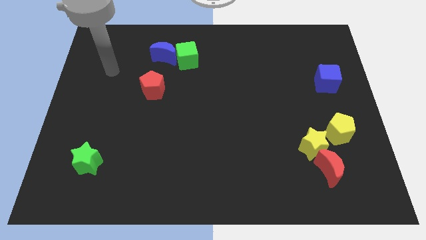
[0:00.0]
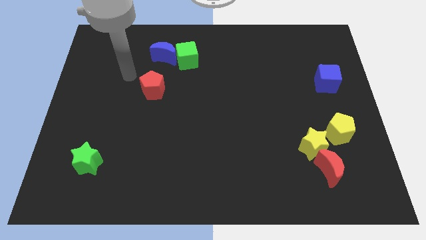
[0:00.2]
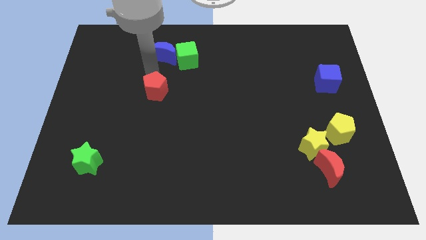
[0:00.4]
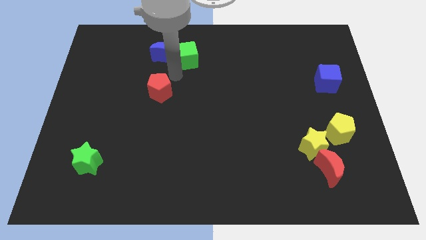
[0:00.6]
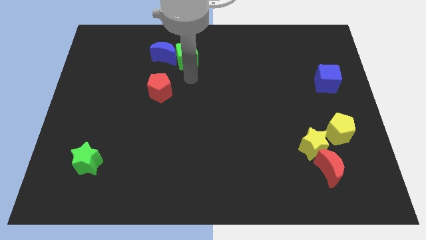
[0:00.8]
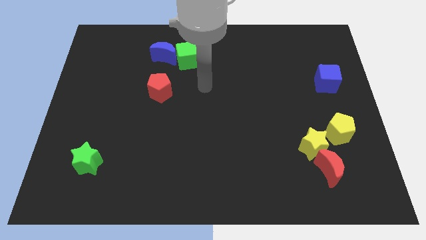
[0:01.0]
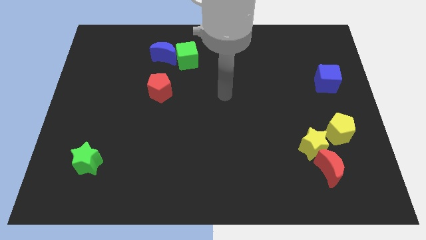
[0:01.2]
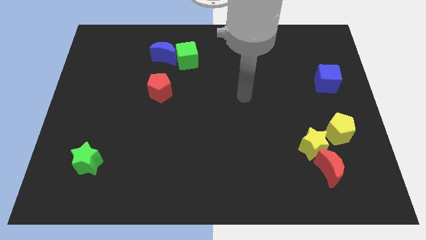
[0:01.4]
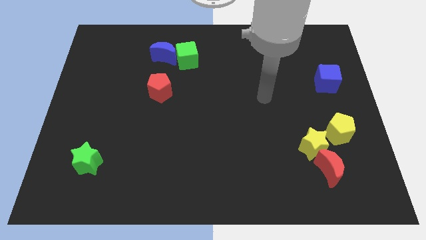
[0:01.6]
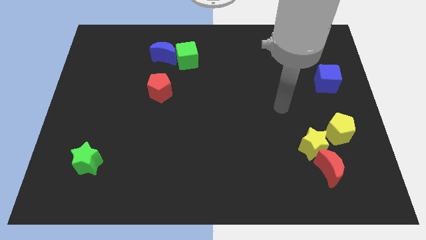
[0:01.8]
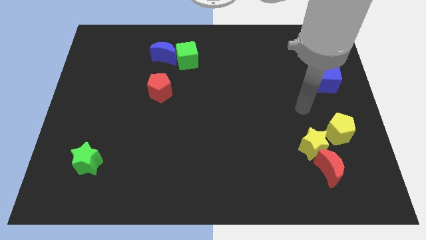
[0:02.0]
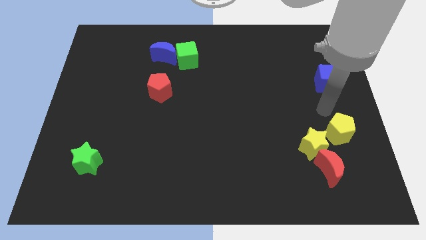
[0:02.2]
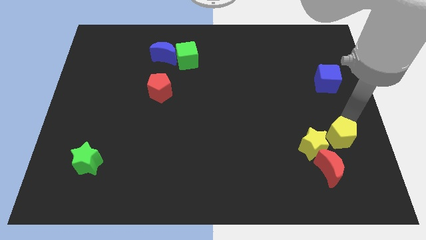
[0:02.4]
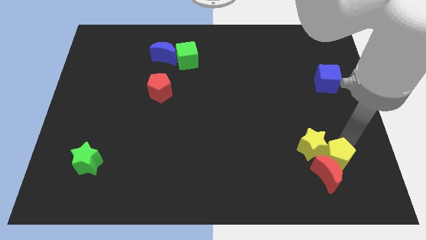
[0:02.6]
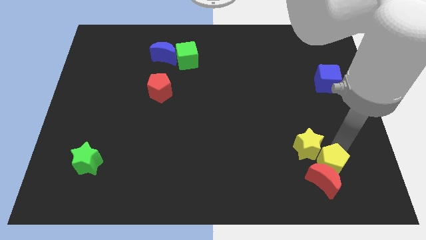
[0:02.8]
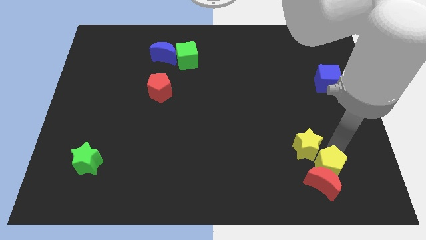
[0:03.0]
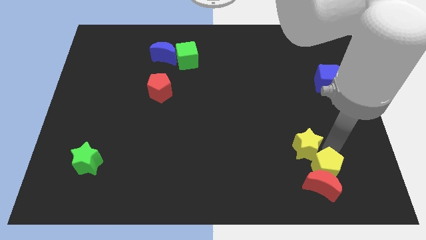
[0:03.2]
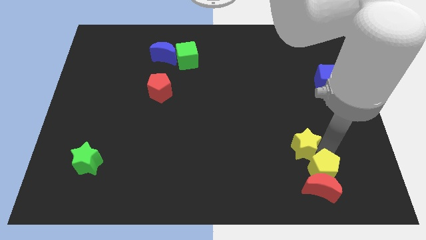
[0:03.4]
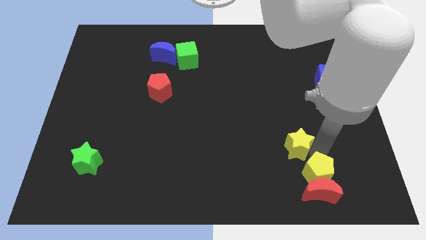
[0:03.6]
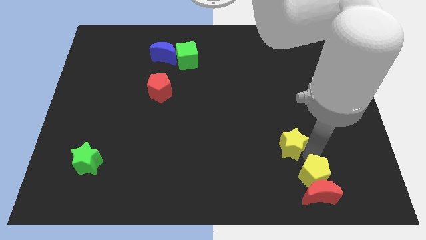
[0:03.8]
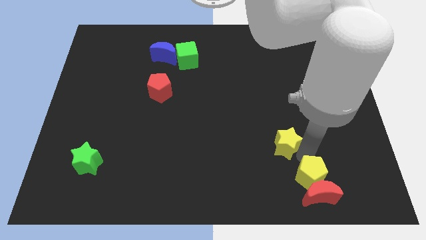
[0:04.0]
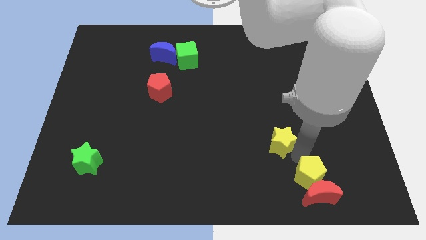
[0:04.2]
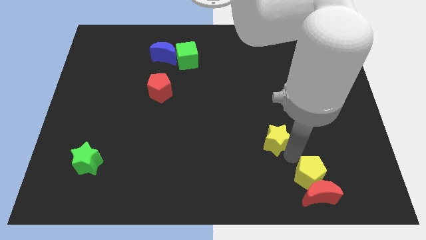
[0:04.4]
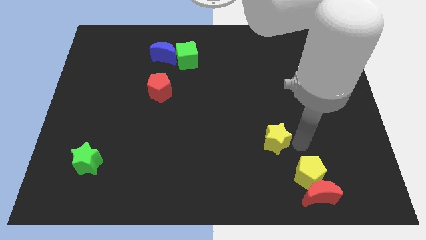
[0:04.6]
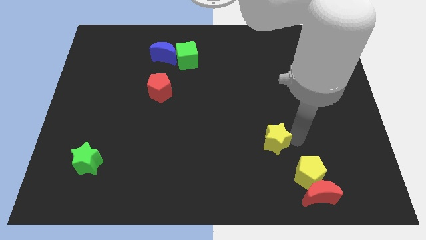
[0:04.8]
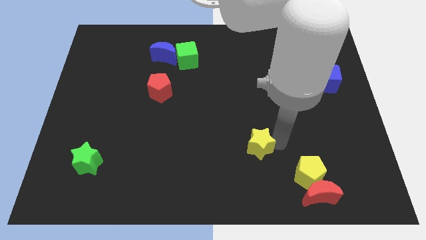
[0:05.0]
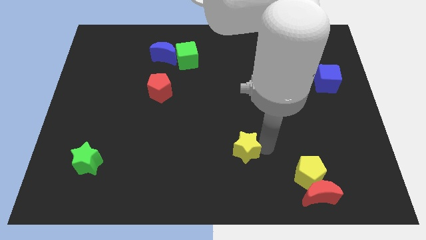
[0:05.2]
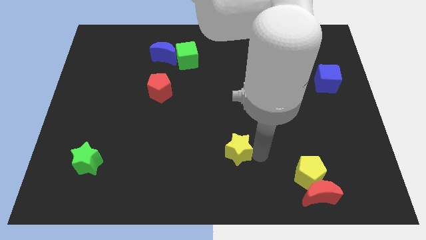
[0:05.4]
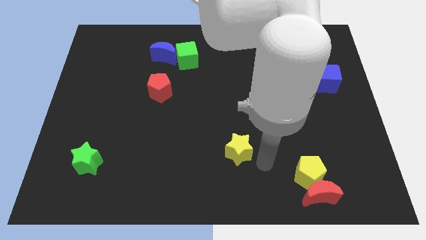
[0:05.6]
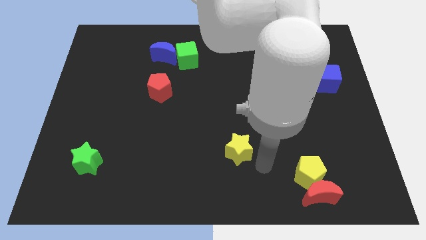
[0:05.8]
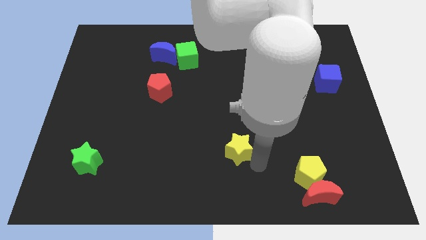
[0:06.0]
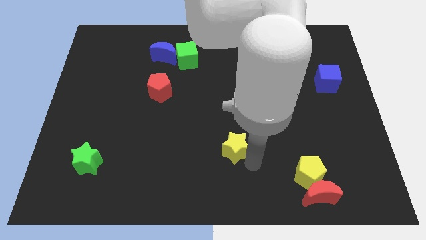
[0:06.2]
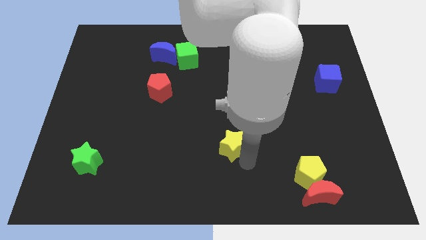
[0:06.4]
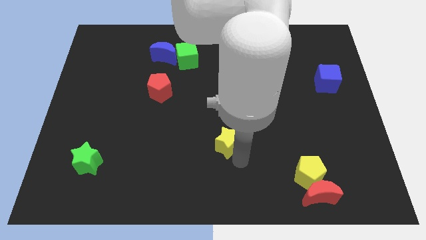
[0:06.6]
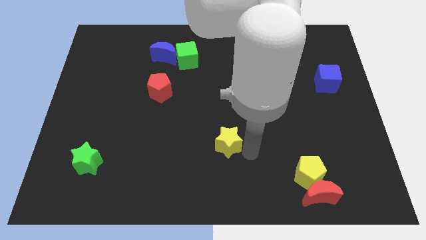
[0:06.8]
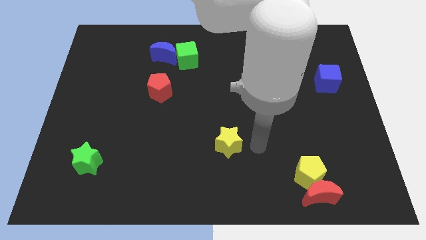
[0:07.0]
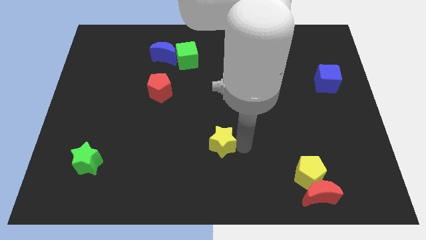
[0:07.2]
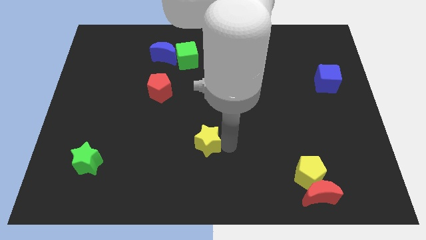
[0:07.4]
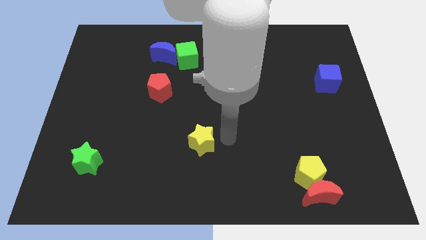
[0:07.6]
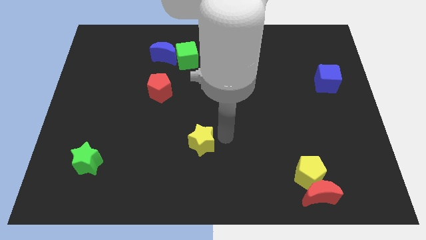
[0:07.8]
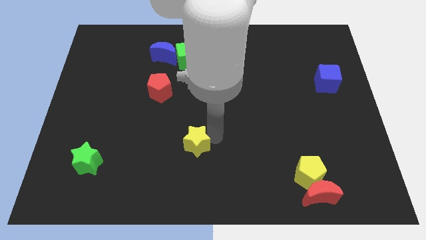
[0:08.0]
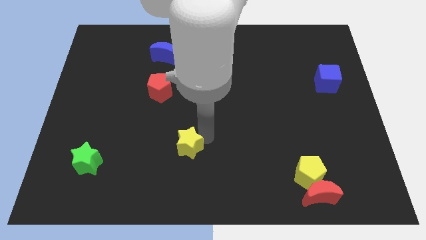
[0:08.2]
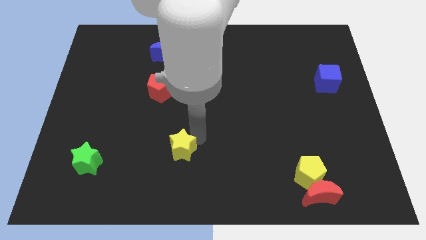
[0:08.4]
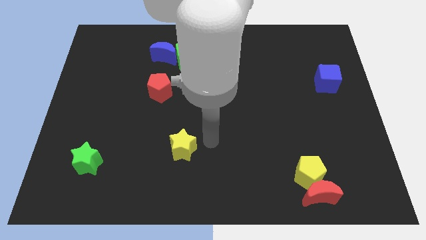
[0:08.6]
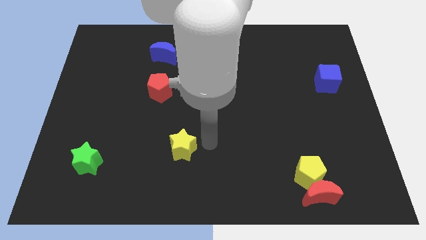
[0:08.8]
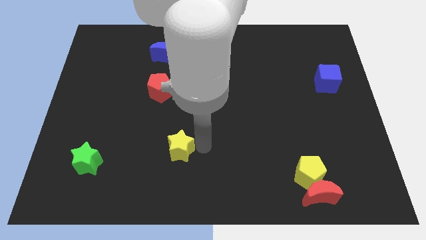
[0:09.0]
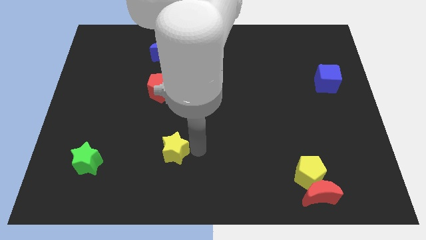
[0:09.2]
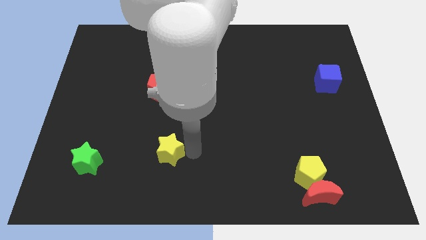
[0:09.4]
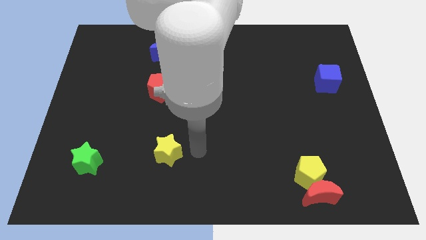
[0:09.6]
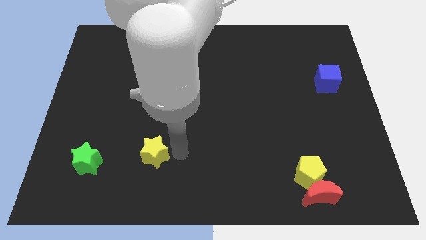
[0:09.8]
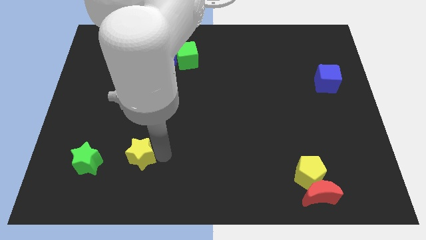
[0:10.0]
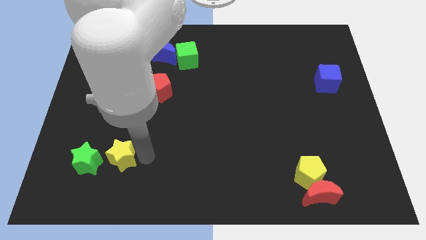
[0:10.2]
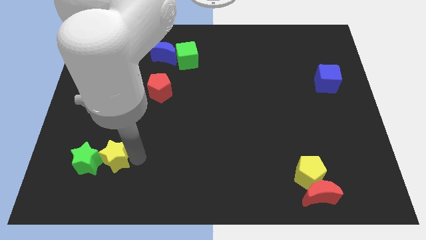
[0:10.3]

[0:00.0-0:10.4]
put the yellow star close to the green star

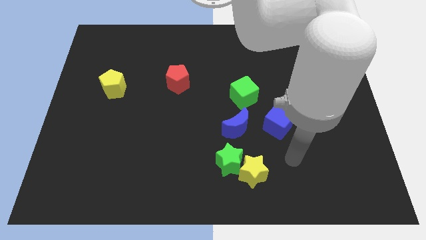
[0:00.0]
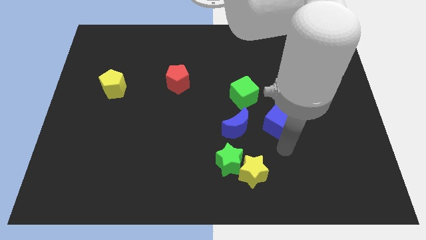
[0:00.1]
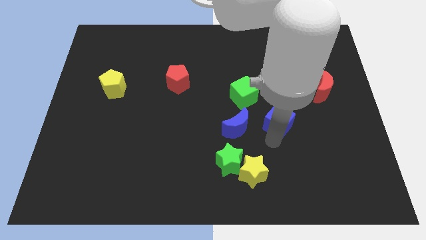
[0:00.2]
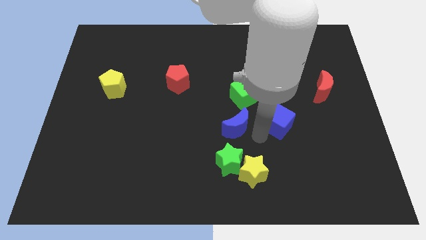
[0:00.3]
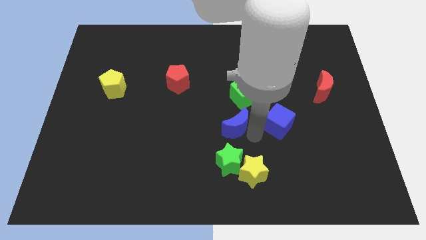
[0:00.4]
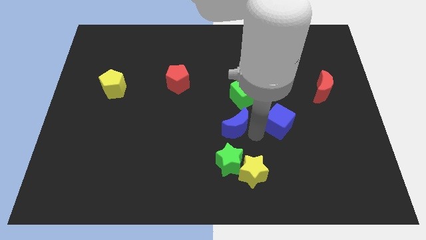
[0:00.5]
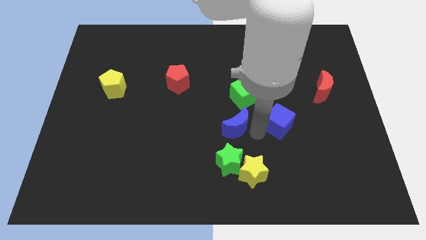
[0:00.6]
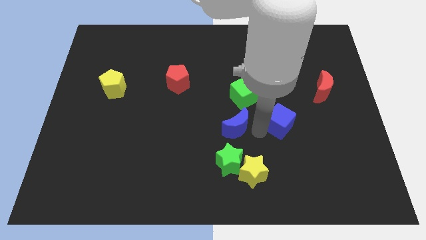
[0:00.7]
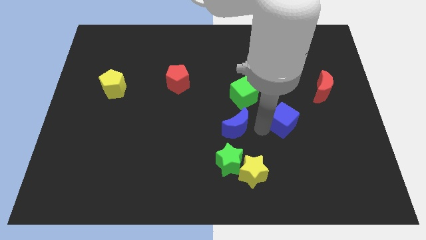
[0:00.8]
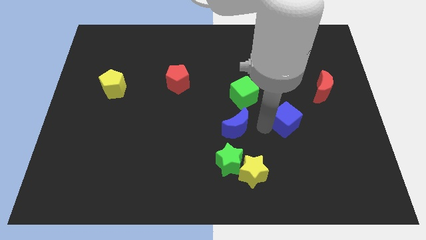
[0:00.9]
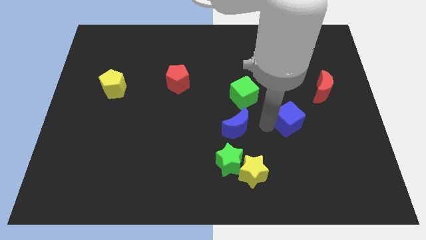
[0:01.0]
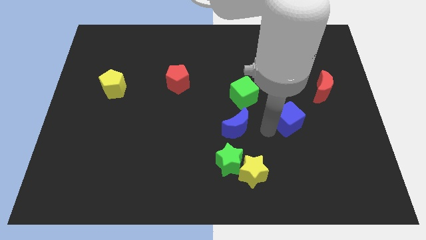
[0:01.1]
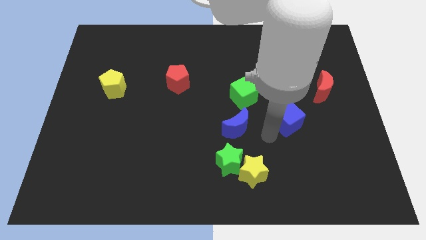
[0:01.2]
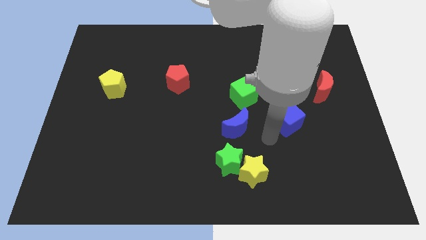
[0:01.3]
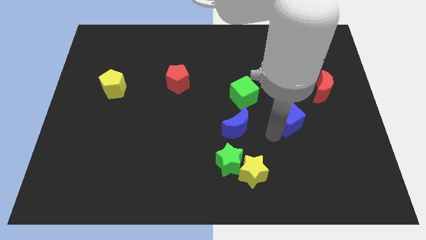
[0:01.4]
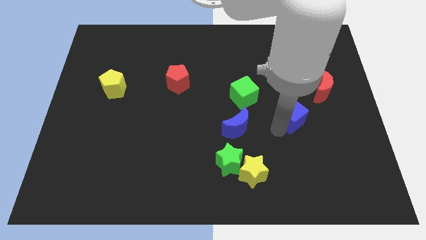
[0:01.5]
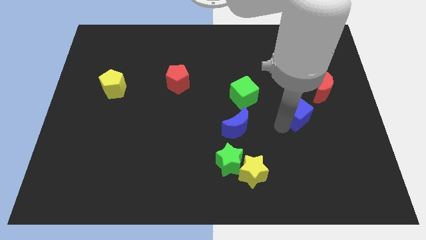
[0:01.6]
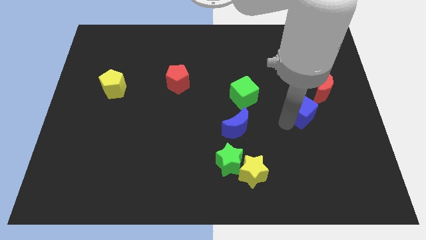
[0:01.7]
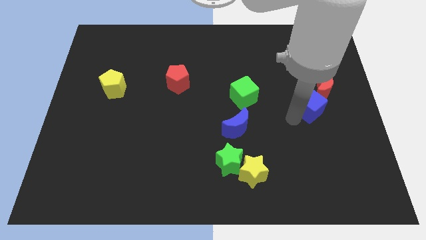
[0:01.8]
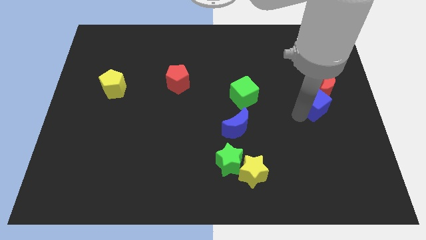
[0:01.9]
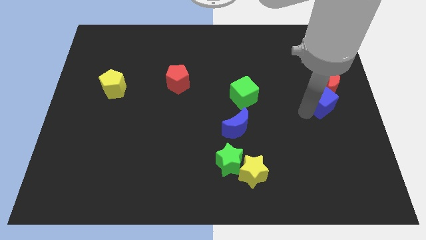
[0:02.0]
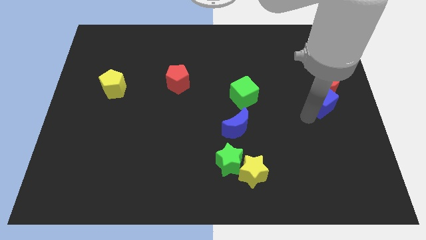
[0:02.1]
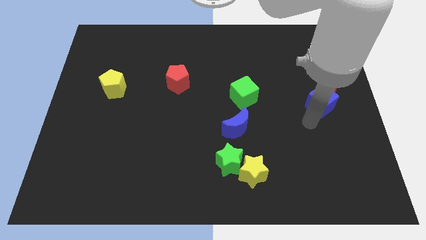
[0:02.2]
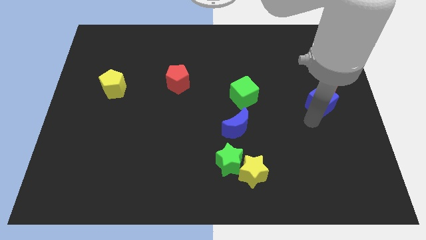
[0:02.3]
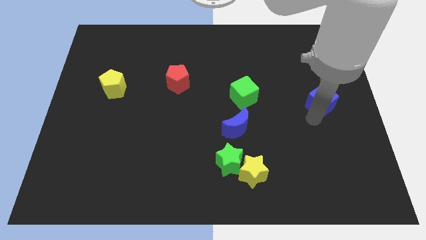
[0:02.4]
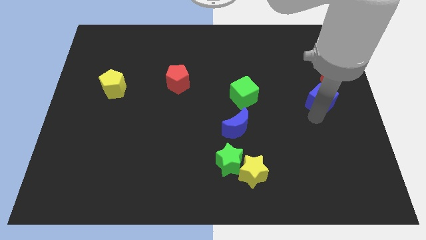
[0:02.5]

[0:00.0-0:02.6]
put the blue cube next to the red moon
